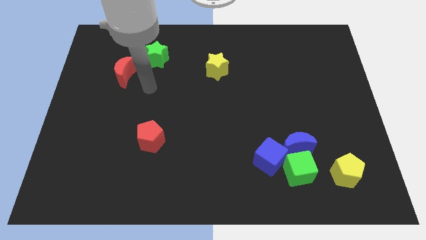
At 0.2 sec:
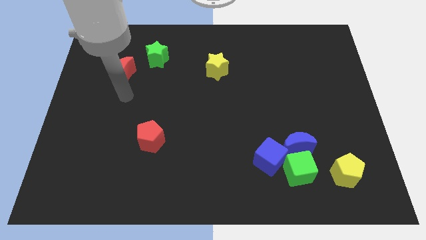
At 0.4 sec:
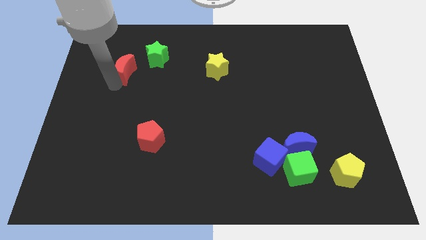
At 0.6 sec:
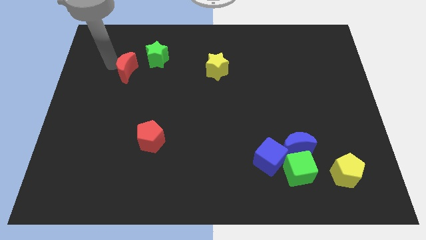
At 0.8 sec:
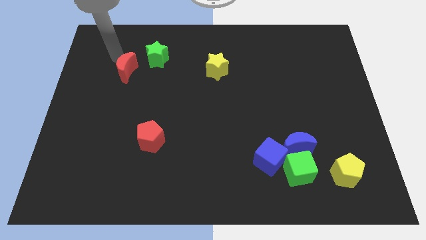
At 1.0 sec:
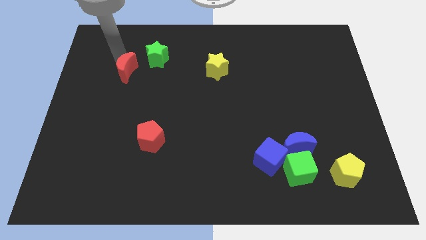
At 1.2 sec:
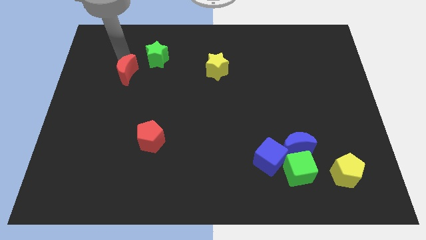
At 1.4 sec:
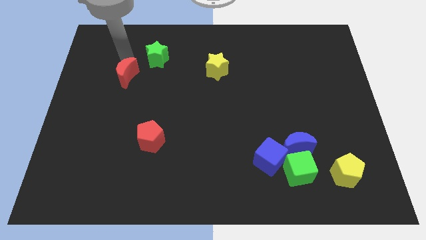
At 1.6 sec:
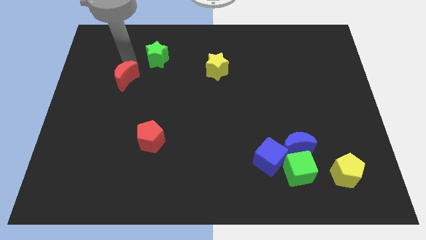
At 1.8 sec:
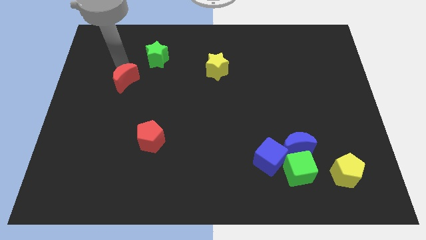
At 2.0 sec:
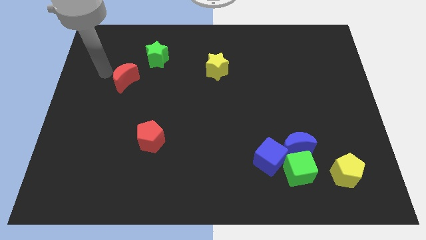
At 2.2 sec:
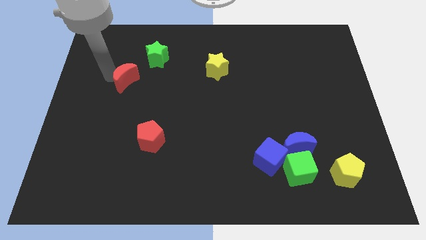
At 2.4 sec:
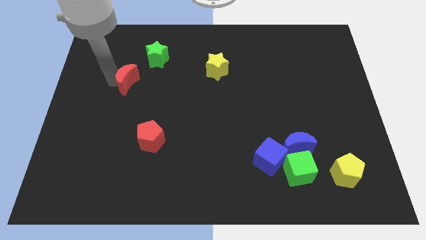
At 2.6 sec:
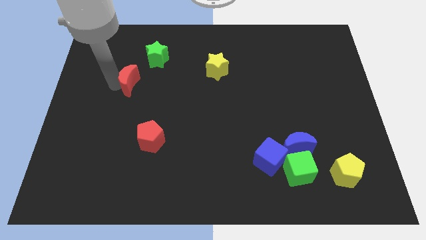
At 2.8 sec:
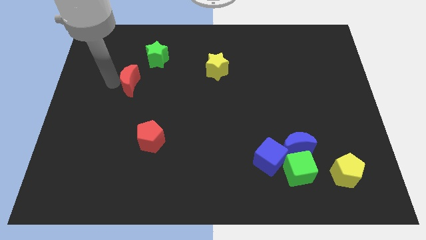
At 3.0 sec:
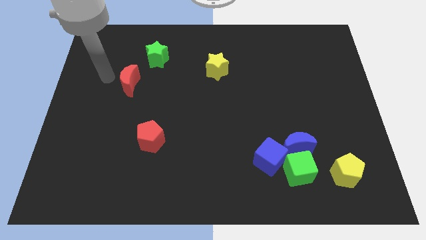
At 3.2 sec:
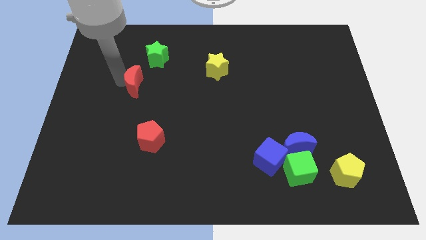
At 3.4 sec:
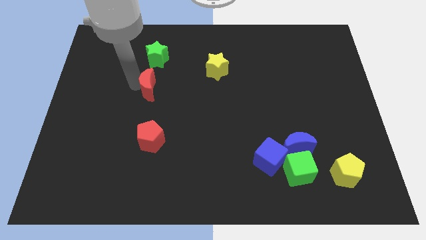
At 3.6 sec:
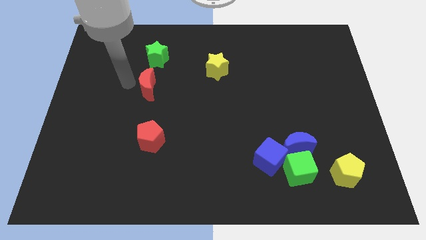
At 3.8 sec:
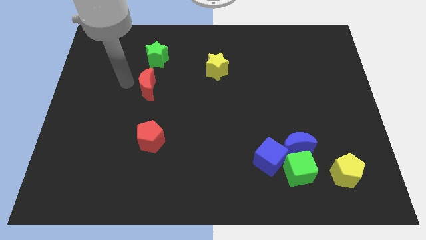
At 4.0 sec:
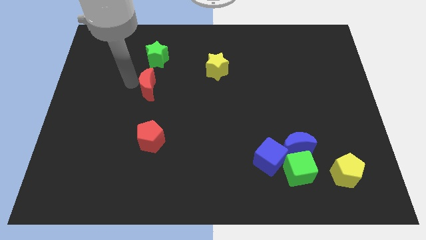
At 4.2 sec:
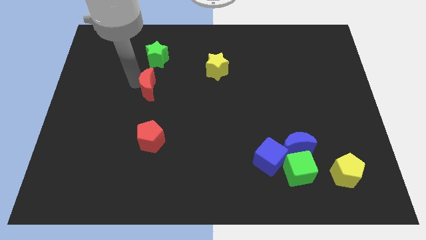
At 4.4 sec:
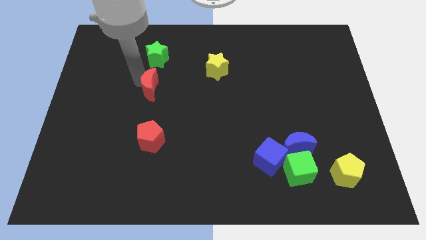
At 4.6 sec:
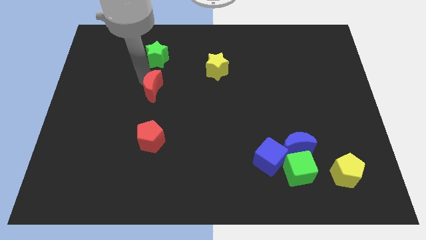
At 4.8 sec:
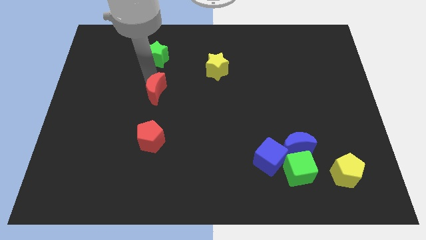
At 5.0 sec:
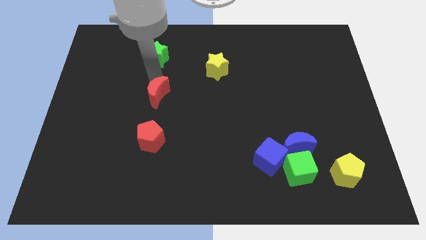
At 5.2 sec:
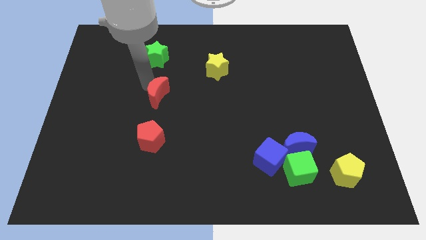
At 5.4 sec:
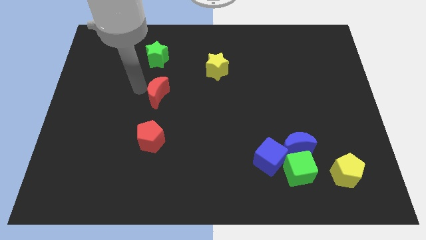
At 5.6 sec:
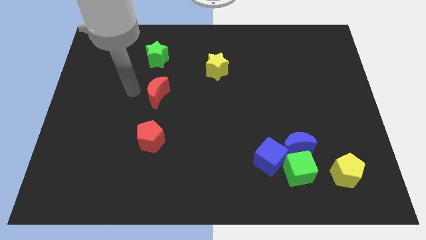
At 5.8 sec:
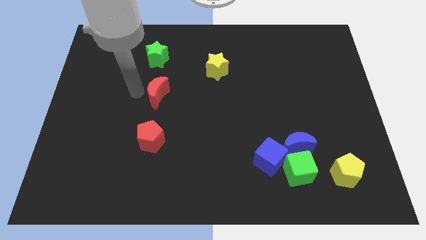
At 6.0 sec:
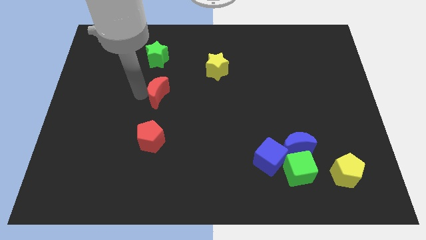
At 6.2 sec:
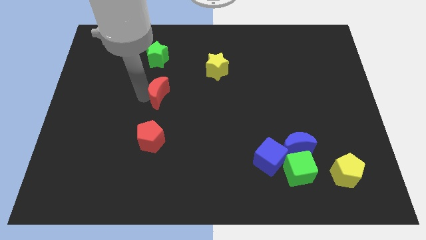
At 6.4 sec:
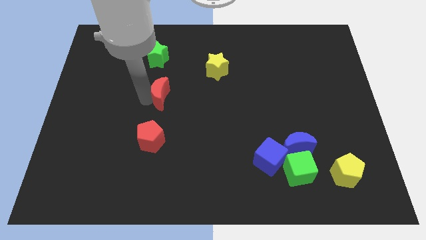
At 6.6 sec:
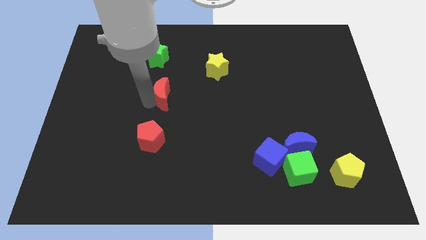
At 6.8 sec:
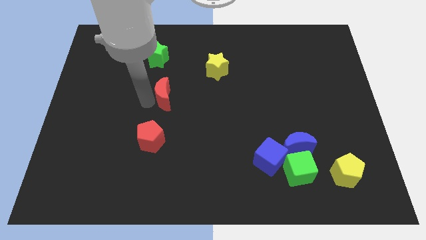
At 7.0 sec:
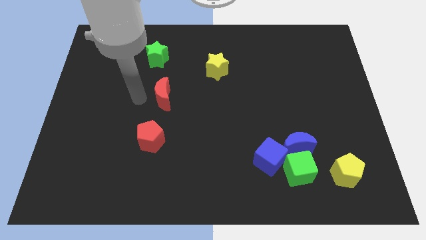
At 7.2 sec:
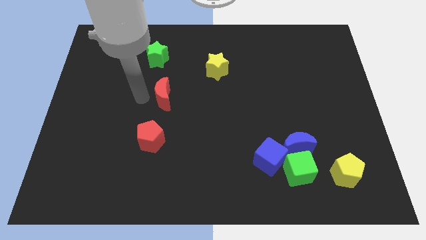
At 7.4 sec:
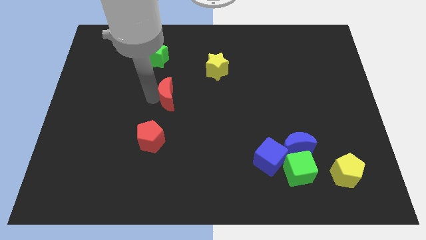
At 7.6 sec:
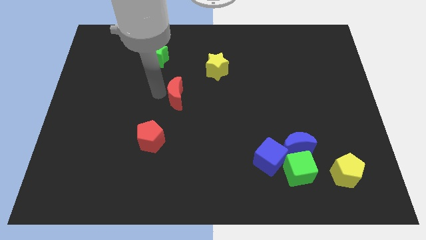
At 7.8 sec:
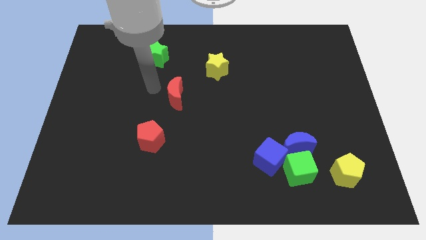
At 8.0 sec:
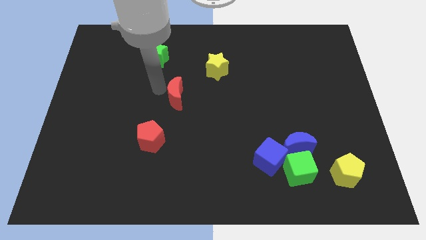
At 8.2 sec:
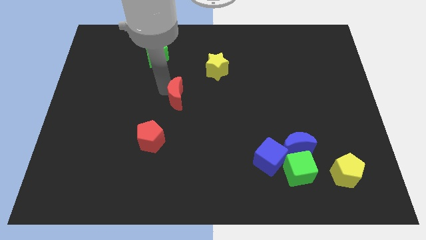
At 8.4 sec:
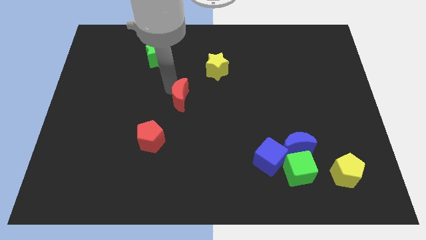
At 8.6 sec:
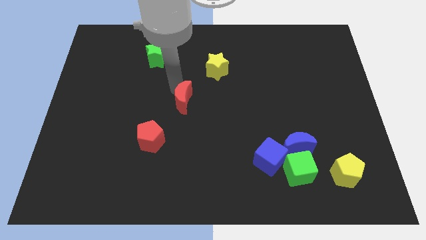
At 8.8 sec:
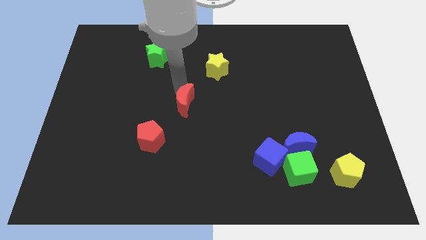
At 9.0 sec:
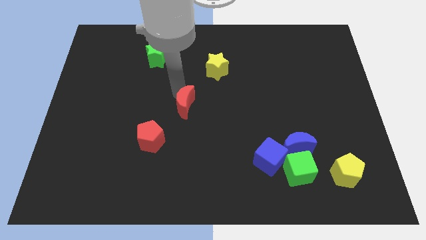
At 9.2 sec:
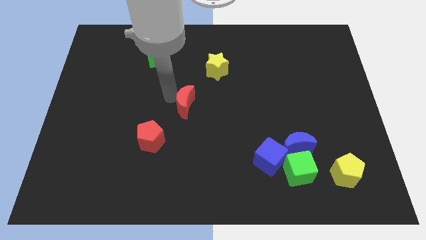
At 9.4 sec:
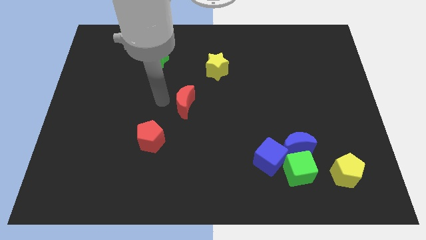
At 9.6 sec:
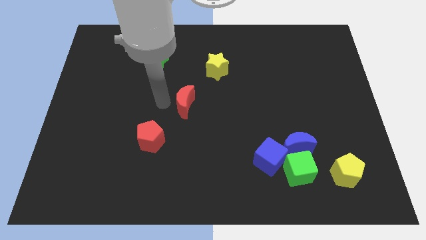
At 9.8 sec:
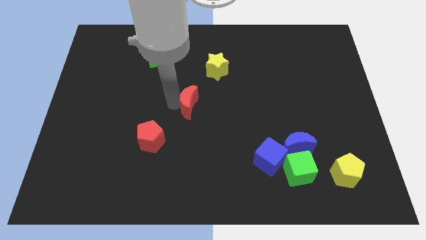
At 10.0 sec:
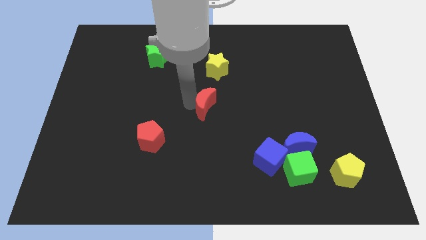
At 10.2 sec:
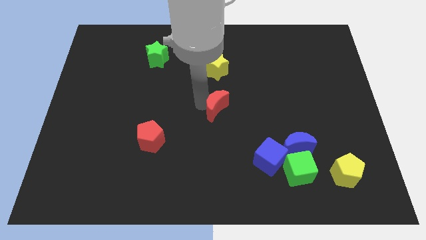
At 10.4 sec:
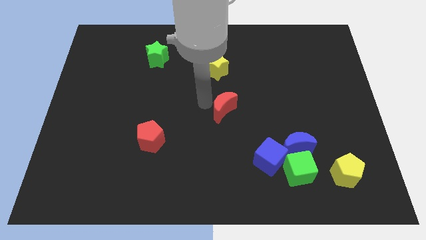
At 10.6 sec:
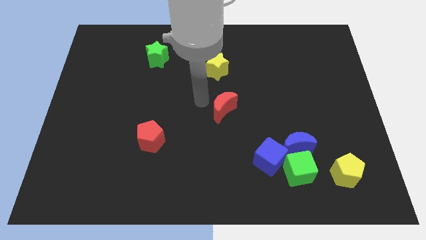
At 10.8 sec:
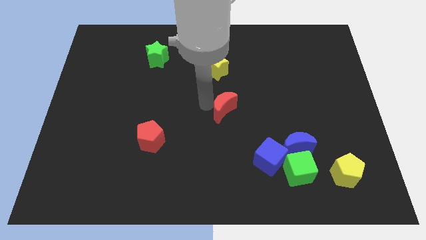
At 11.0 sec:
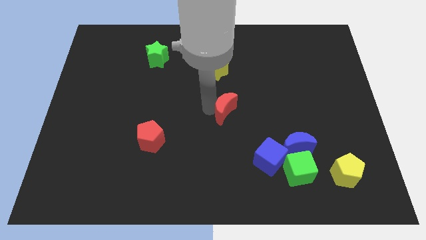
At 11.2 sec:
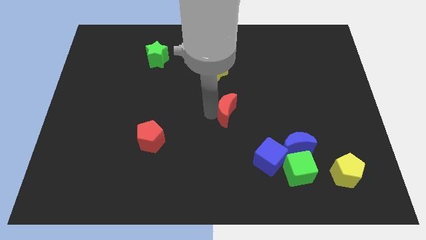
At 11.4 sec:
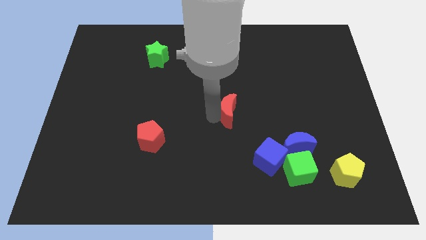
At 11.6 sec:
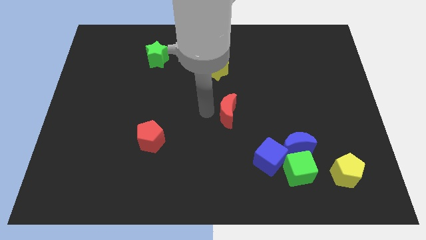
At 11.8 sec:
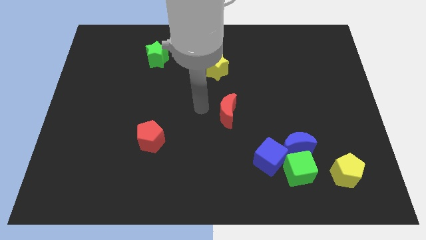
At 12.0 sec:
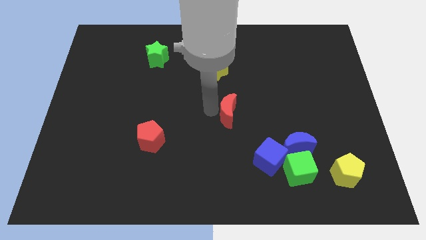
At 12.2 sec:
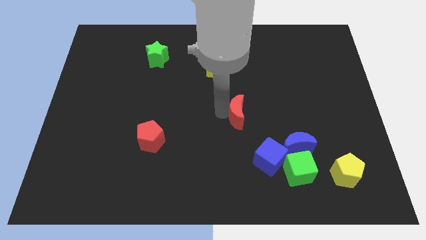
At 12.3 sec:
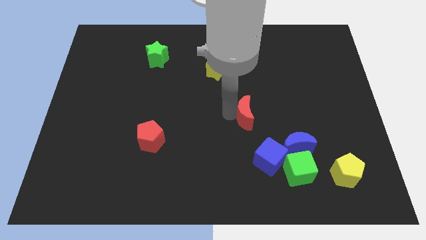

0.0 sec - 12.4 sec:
move the red moon to the top side of the blue cube
